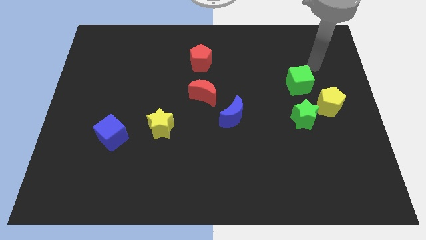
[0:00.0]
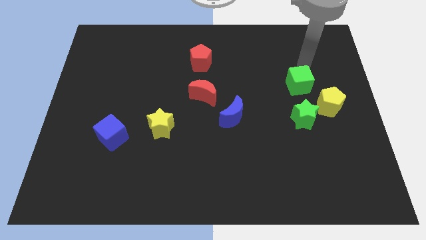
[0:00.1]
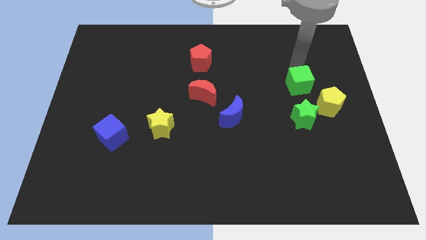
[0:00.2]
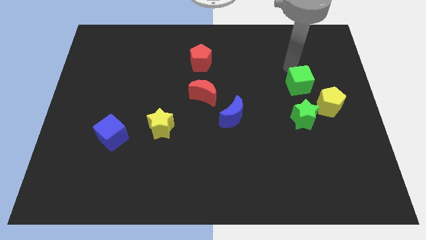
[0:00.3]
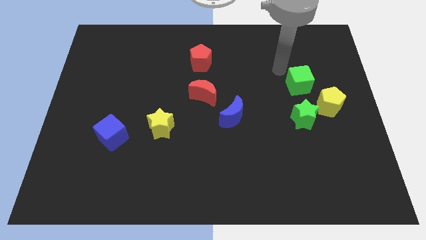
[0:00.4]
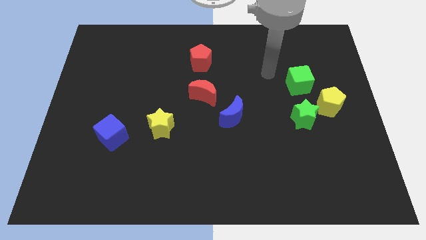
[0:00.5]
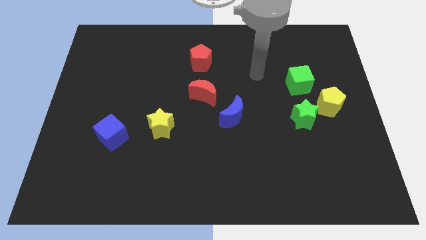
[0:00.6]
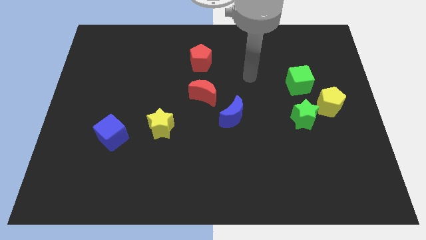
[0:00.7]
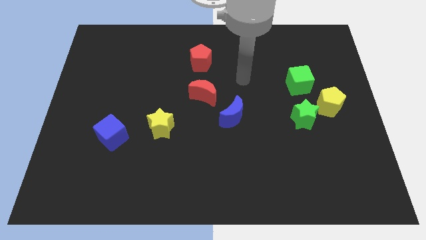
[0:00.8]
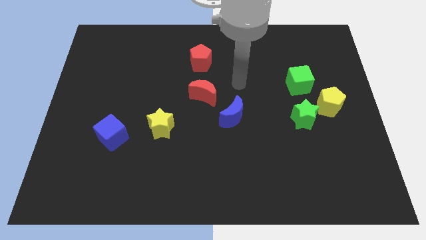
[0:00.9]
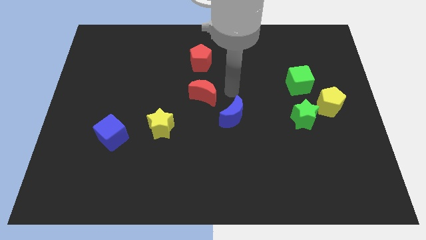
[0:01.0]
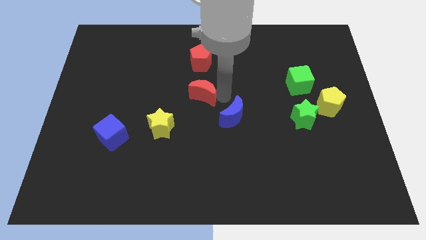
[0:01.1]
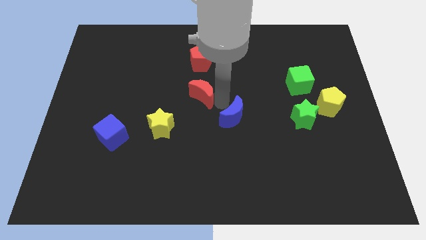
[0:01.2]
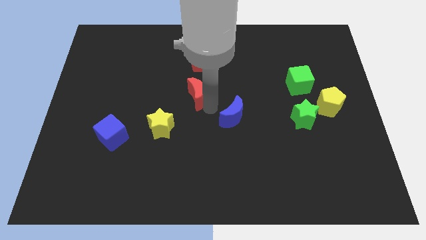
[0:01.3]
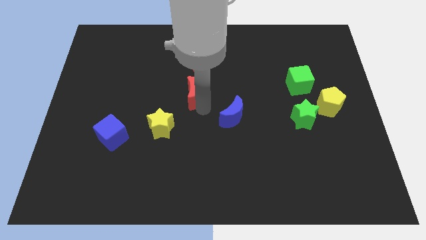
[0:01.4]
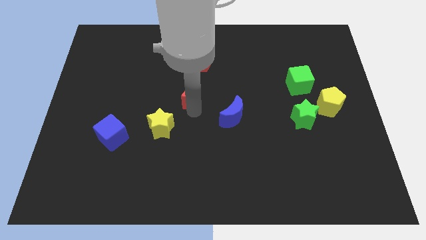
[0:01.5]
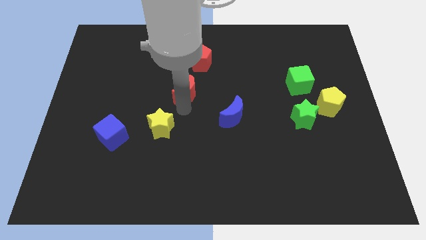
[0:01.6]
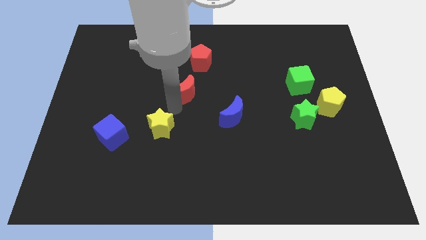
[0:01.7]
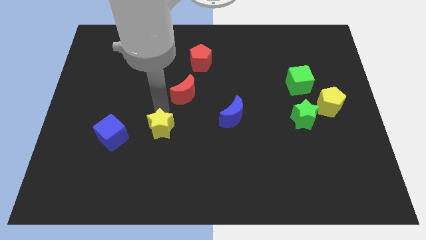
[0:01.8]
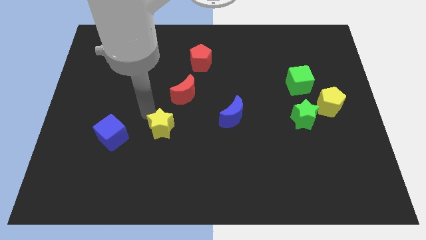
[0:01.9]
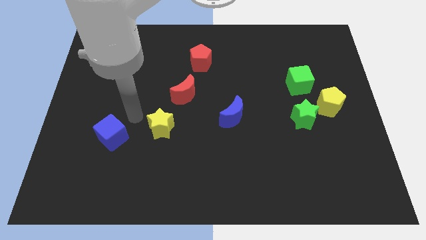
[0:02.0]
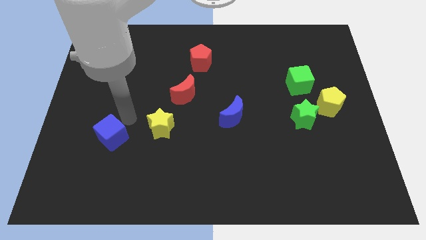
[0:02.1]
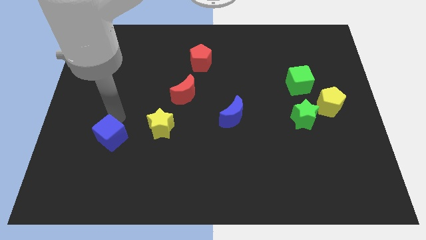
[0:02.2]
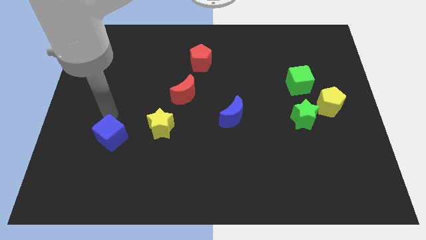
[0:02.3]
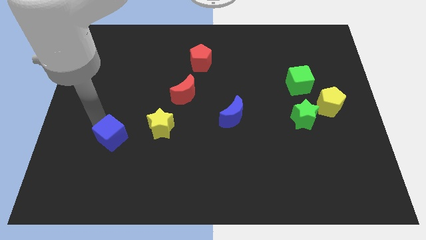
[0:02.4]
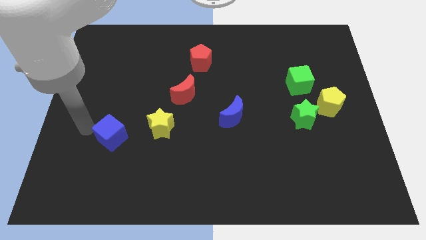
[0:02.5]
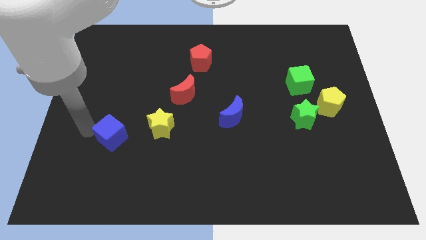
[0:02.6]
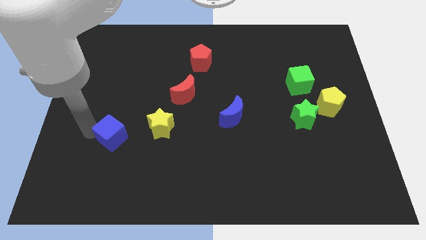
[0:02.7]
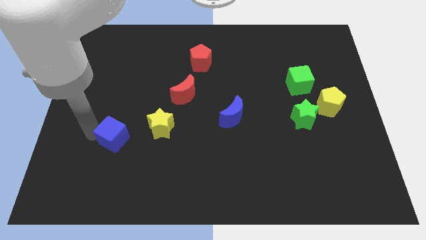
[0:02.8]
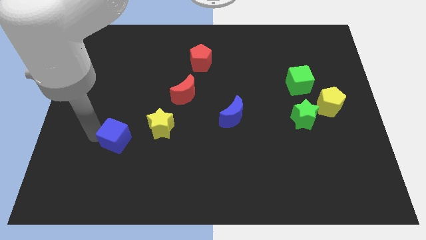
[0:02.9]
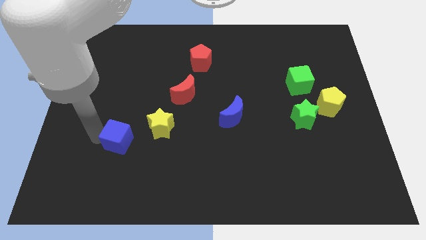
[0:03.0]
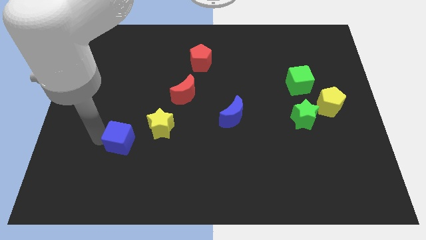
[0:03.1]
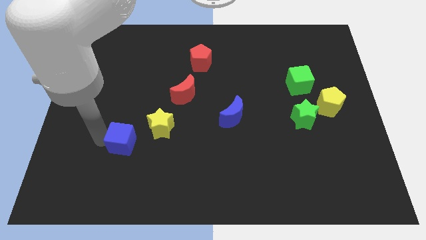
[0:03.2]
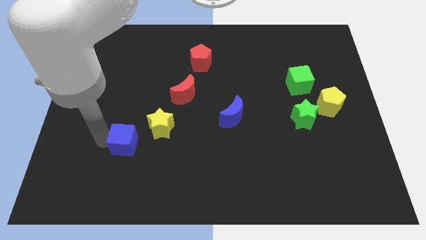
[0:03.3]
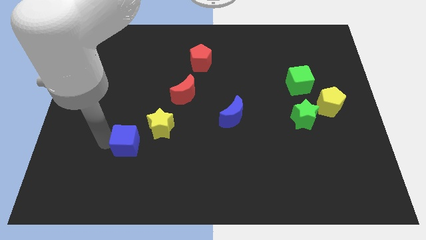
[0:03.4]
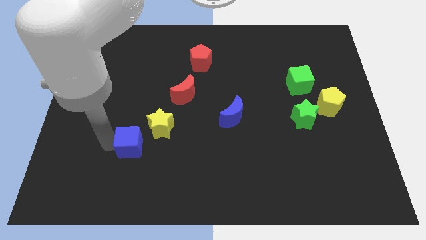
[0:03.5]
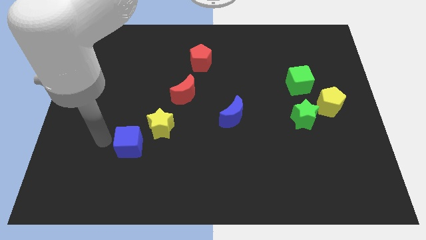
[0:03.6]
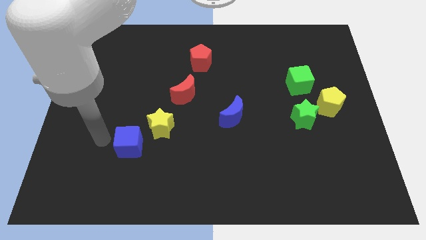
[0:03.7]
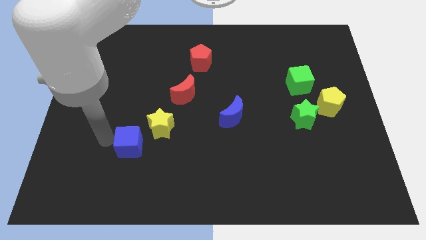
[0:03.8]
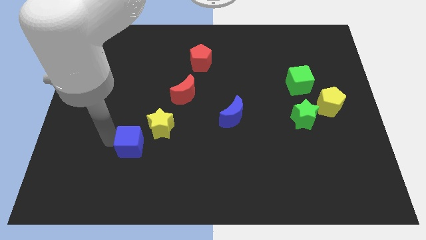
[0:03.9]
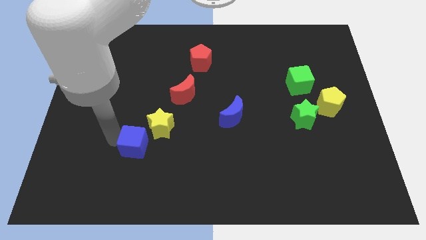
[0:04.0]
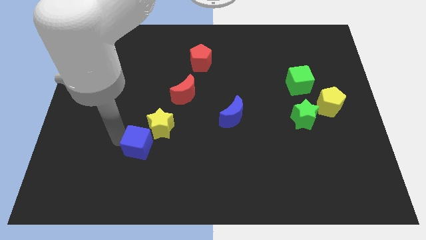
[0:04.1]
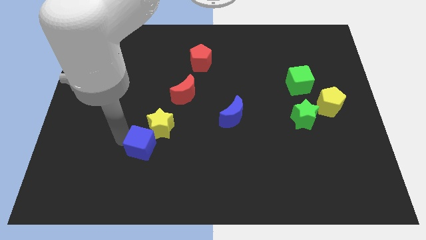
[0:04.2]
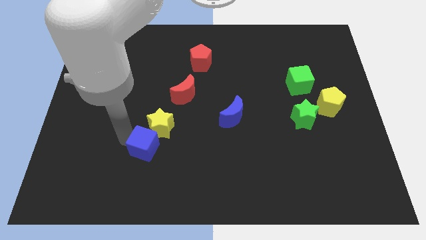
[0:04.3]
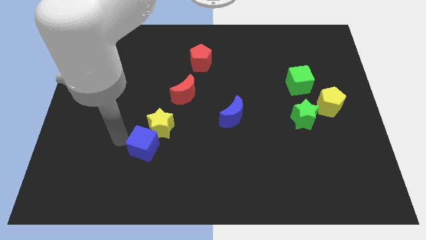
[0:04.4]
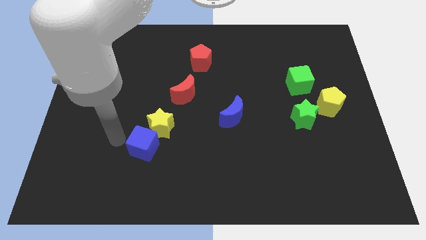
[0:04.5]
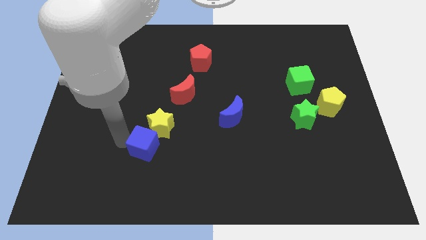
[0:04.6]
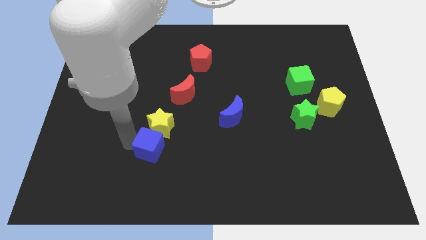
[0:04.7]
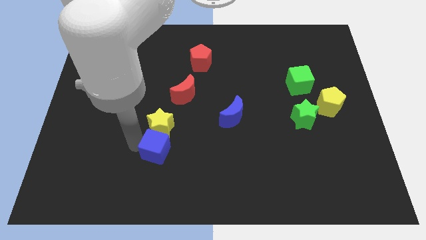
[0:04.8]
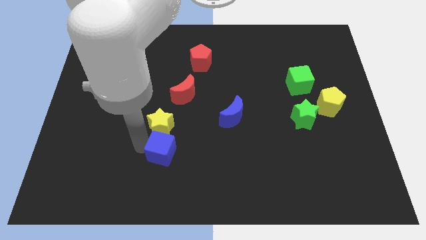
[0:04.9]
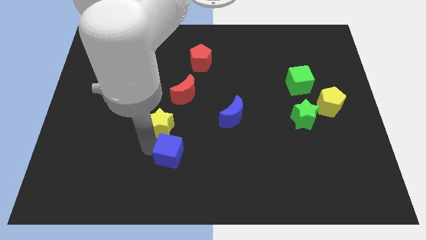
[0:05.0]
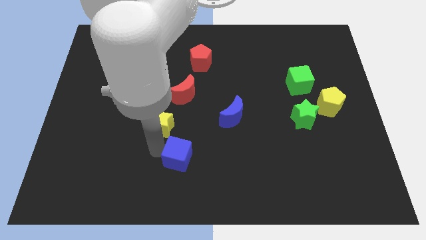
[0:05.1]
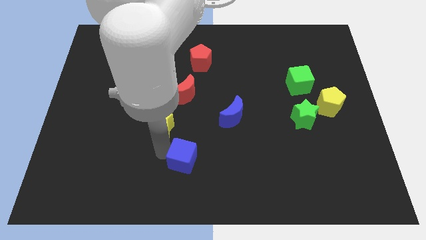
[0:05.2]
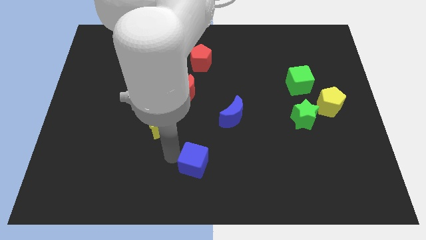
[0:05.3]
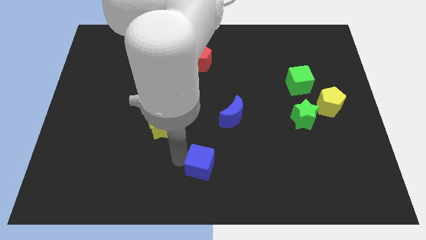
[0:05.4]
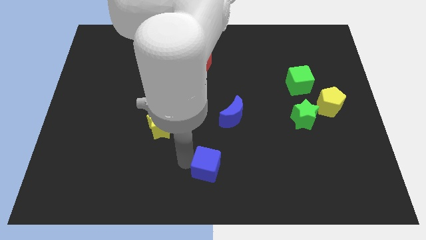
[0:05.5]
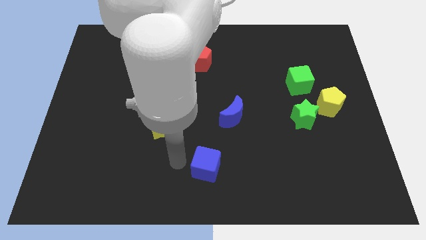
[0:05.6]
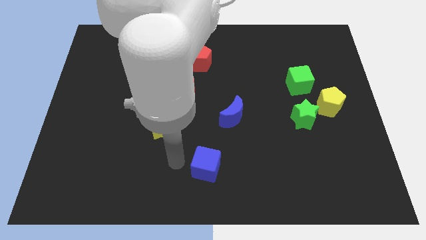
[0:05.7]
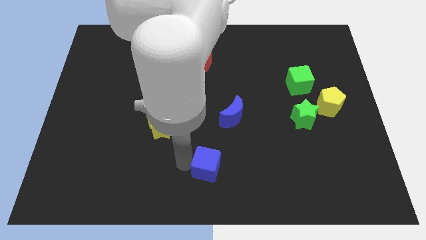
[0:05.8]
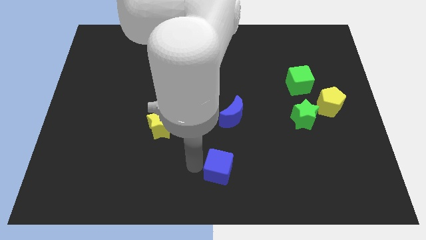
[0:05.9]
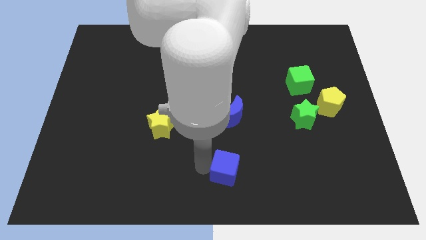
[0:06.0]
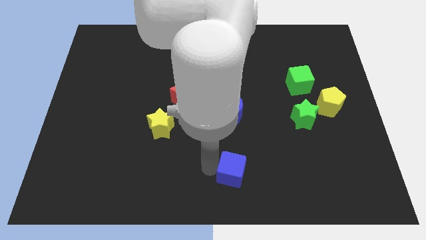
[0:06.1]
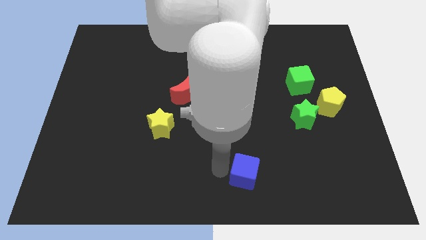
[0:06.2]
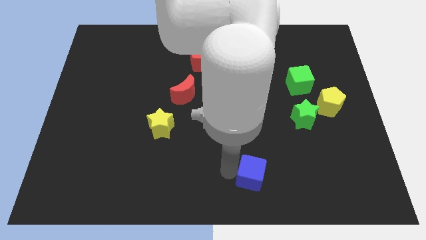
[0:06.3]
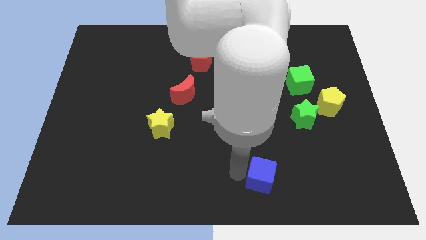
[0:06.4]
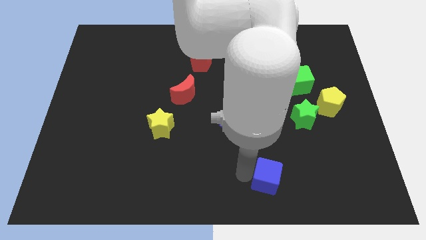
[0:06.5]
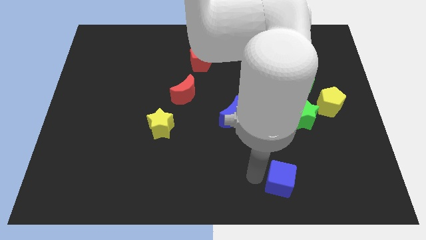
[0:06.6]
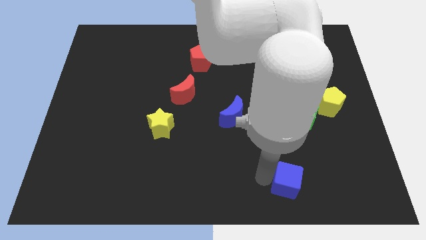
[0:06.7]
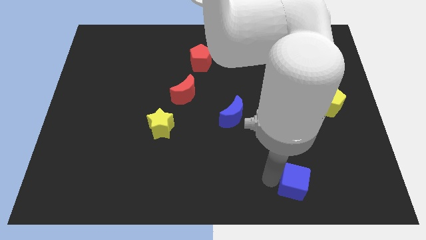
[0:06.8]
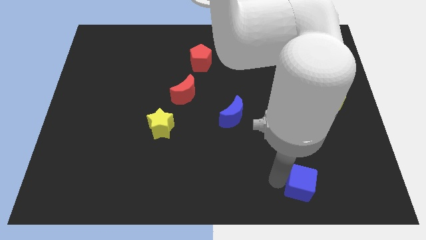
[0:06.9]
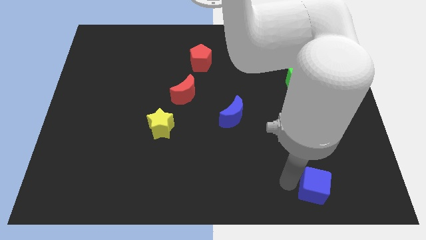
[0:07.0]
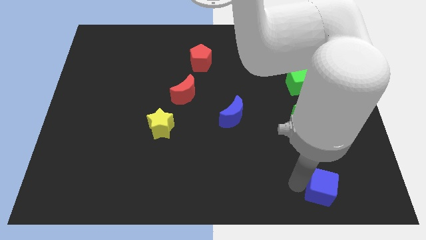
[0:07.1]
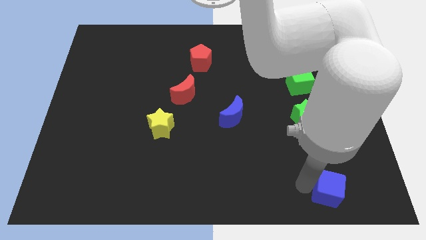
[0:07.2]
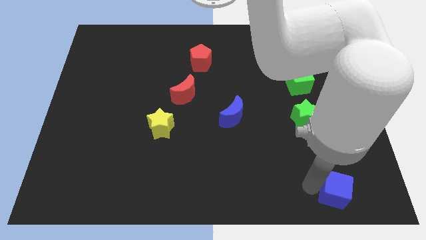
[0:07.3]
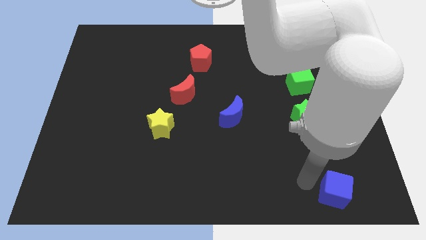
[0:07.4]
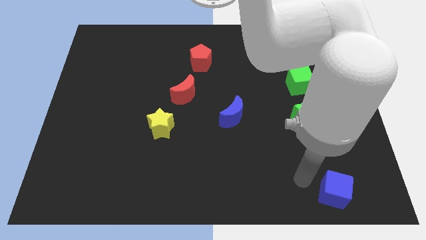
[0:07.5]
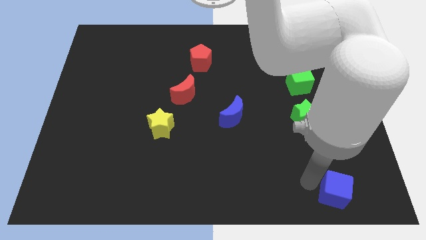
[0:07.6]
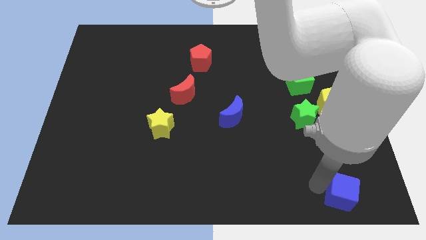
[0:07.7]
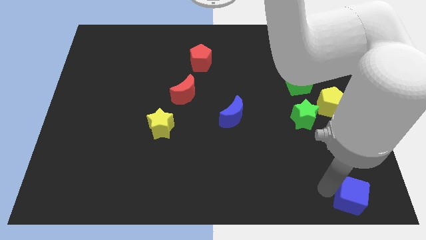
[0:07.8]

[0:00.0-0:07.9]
slide the blue cube to the bottom right of the board
